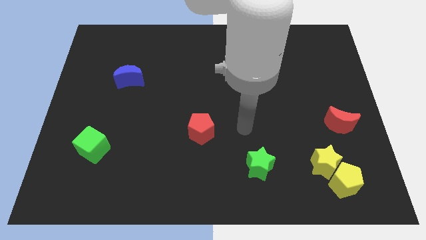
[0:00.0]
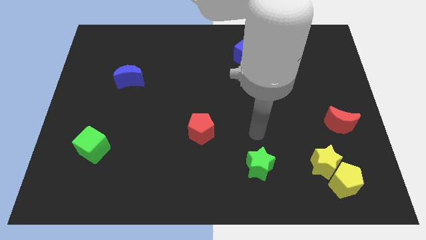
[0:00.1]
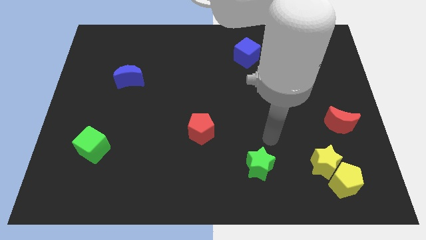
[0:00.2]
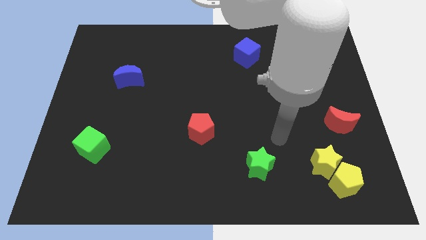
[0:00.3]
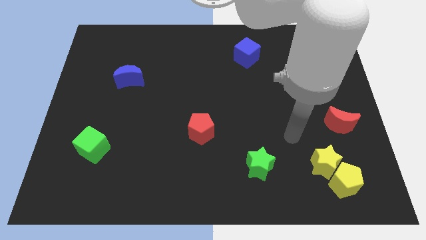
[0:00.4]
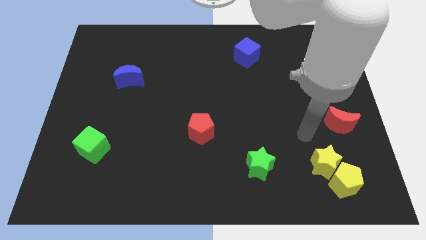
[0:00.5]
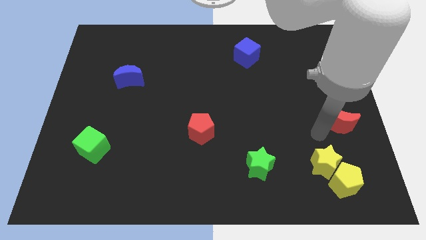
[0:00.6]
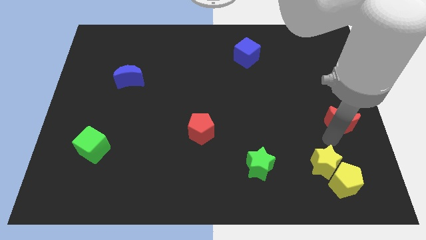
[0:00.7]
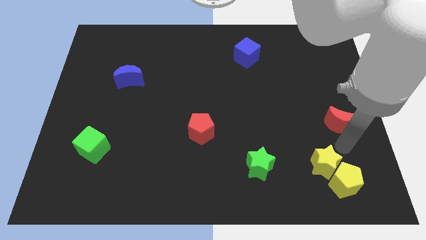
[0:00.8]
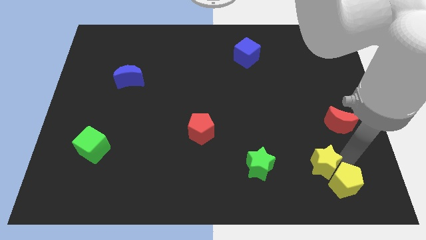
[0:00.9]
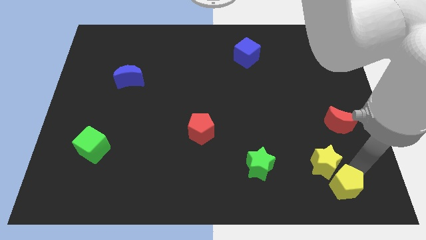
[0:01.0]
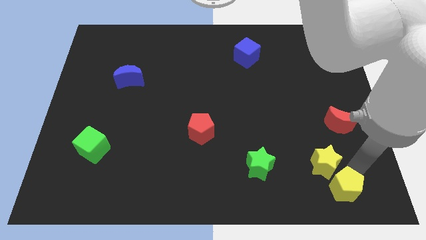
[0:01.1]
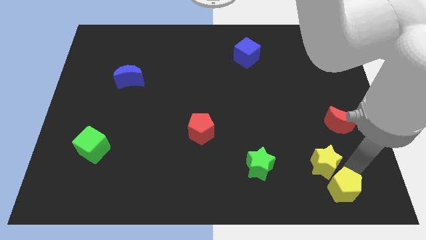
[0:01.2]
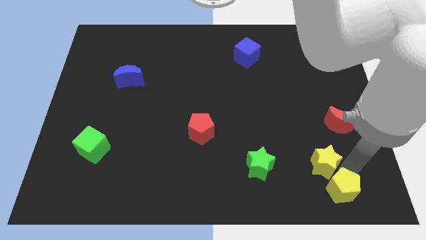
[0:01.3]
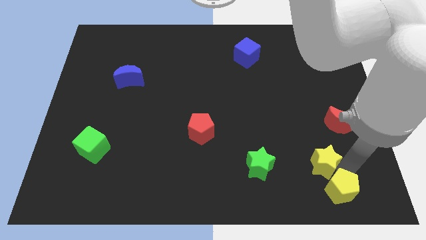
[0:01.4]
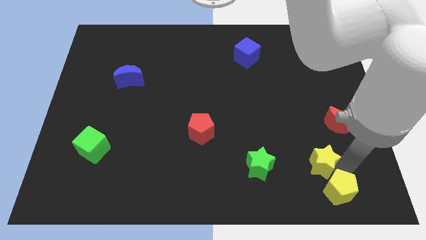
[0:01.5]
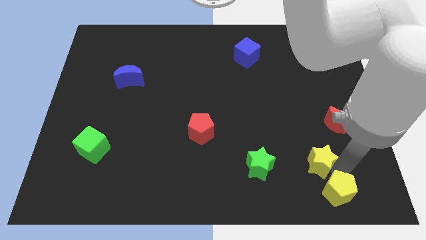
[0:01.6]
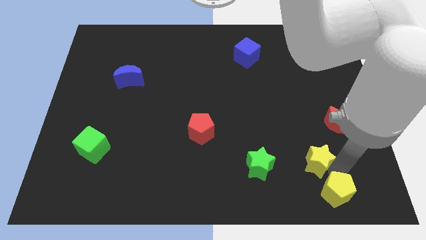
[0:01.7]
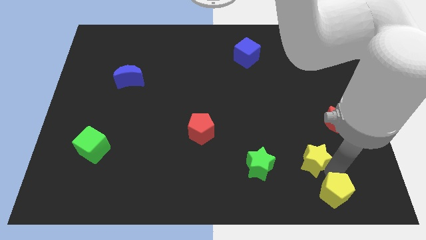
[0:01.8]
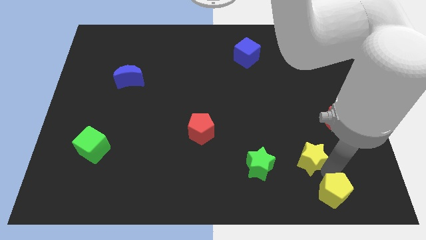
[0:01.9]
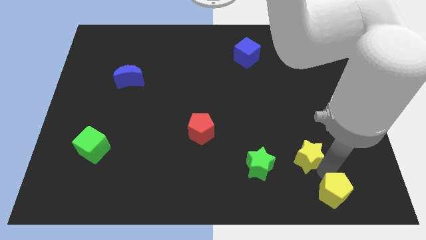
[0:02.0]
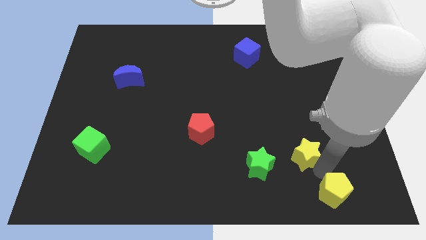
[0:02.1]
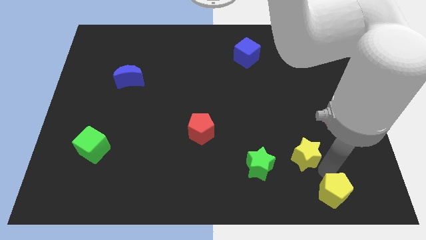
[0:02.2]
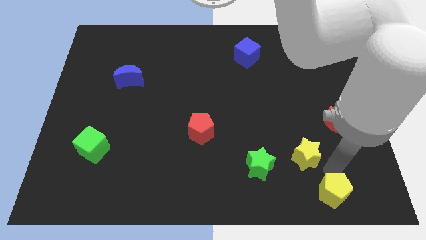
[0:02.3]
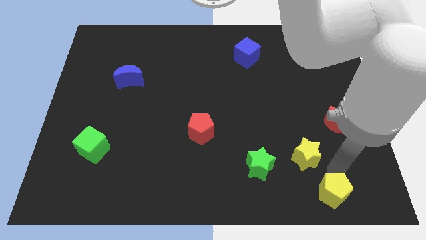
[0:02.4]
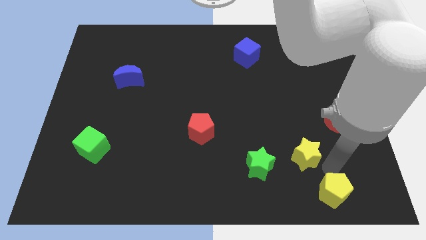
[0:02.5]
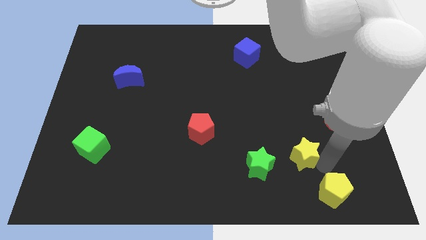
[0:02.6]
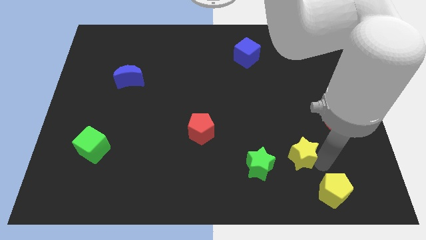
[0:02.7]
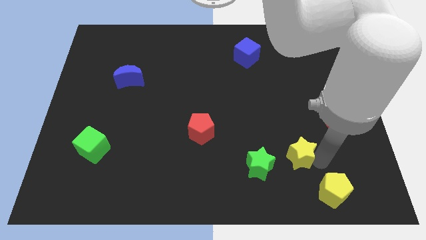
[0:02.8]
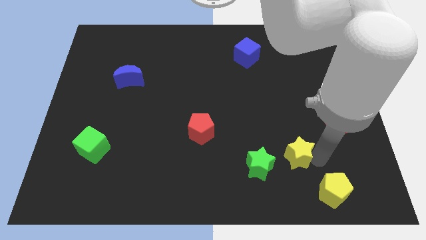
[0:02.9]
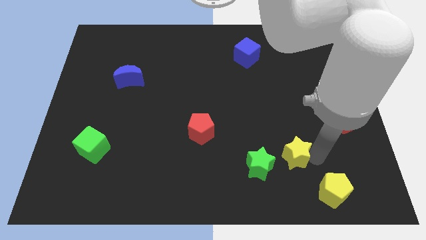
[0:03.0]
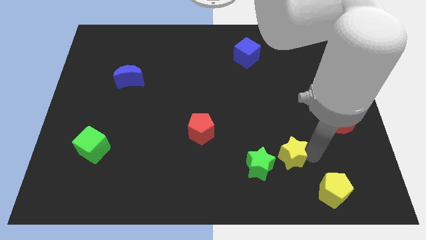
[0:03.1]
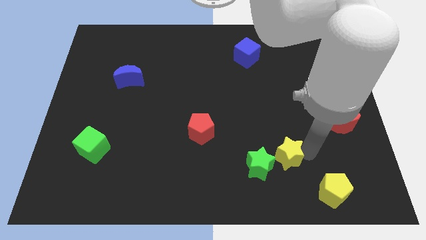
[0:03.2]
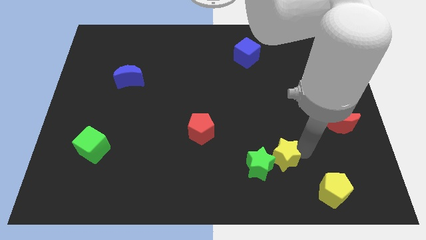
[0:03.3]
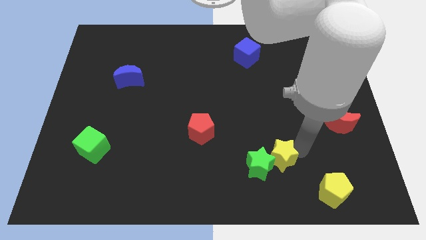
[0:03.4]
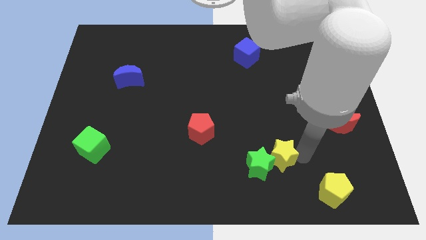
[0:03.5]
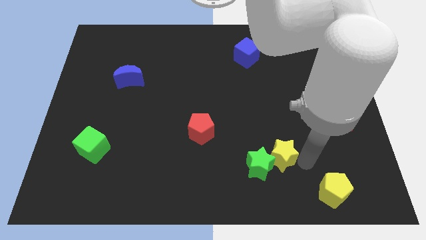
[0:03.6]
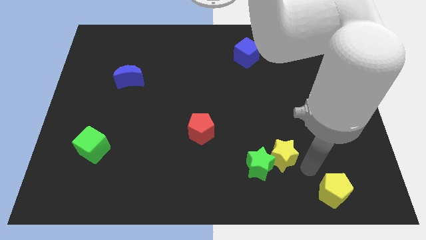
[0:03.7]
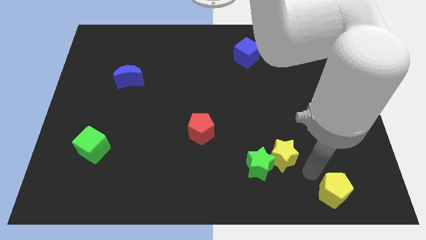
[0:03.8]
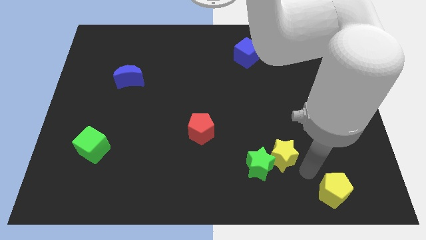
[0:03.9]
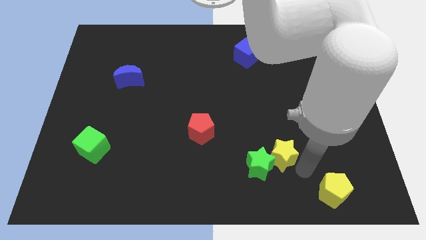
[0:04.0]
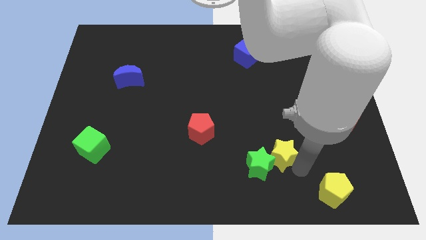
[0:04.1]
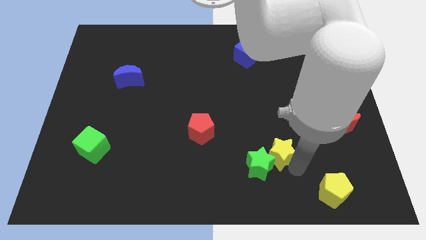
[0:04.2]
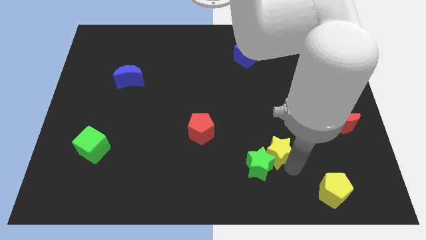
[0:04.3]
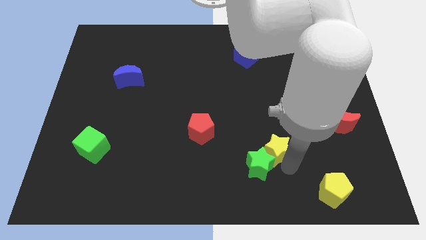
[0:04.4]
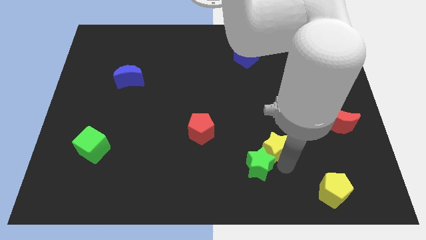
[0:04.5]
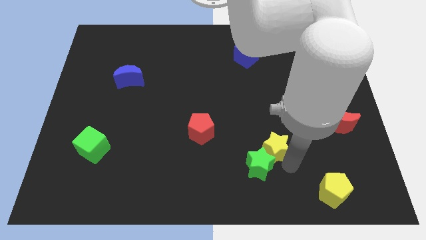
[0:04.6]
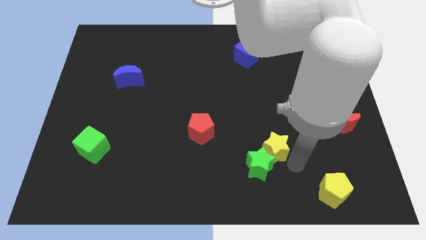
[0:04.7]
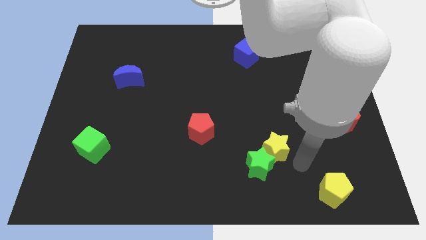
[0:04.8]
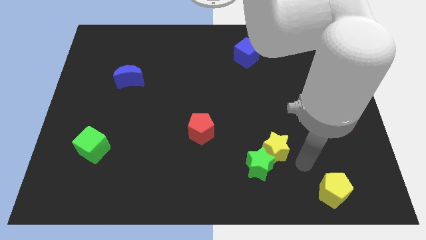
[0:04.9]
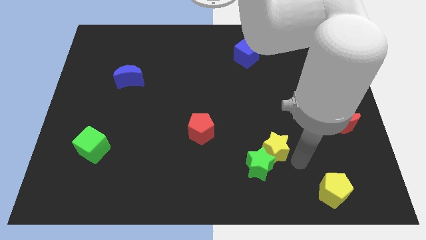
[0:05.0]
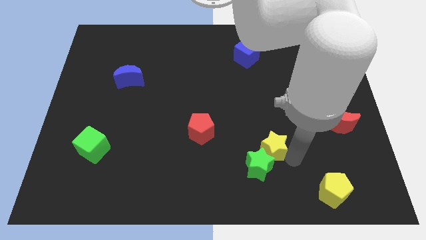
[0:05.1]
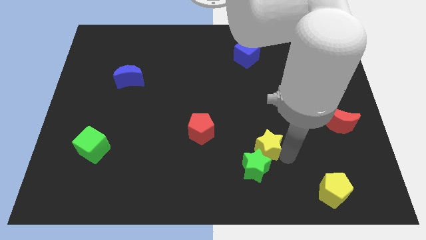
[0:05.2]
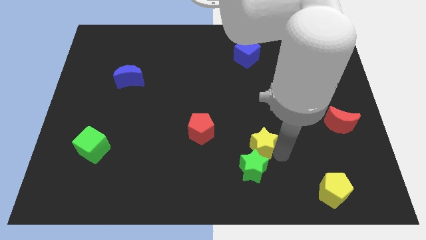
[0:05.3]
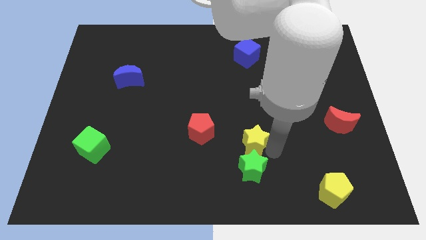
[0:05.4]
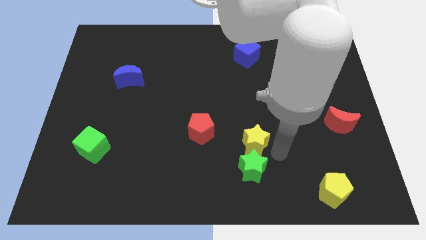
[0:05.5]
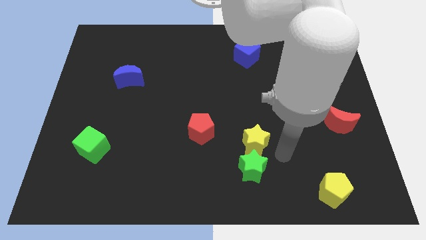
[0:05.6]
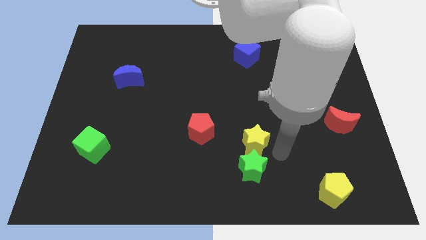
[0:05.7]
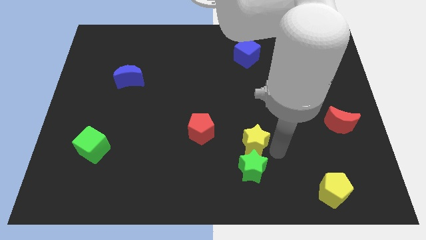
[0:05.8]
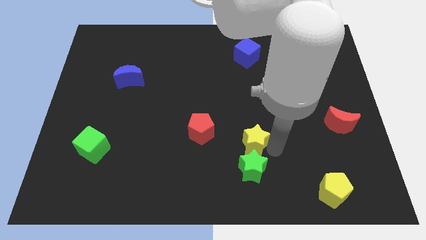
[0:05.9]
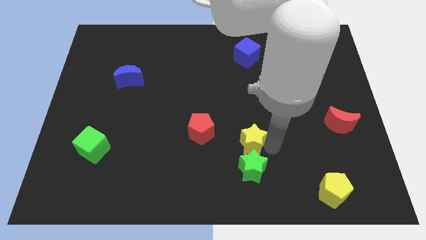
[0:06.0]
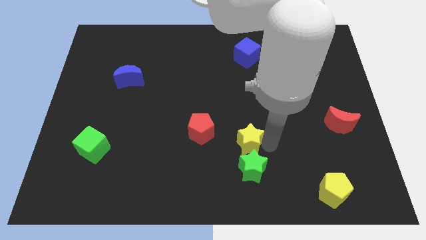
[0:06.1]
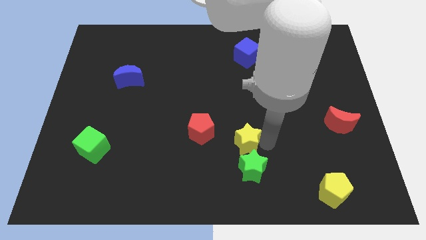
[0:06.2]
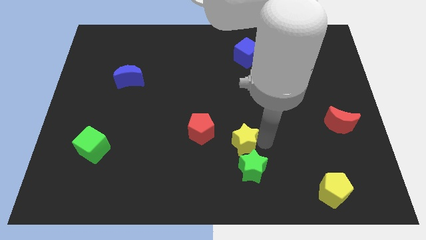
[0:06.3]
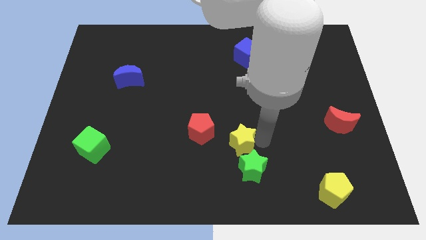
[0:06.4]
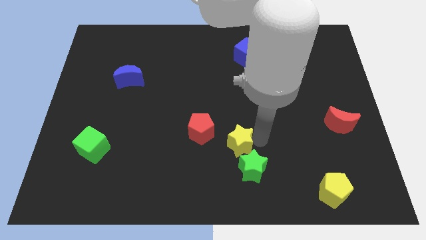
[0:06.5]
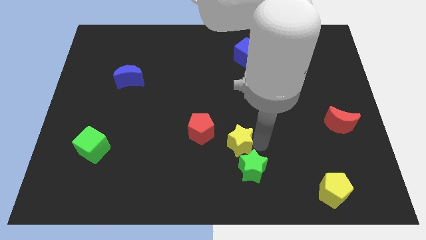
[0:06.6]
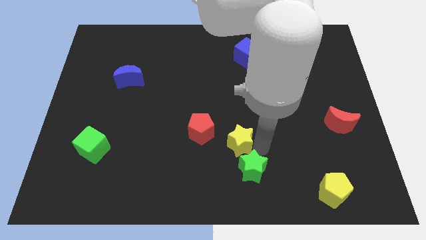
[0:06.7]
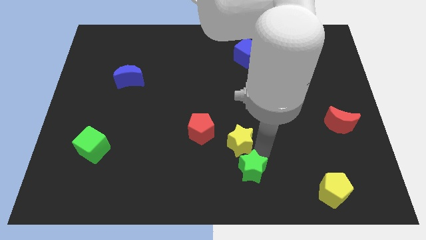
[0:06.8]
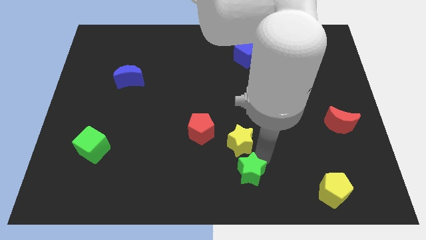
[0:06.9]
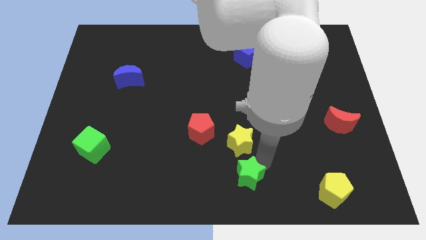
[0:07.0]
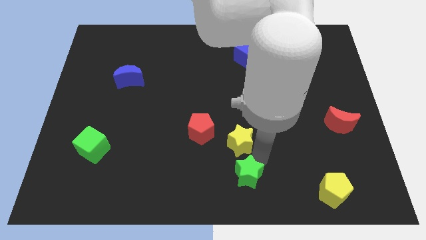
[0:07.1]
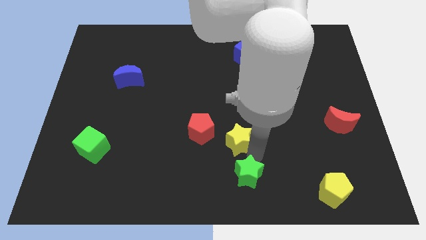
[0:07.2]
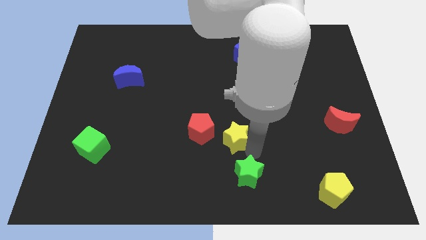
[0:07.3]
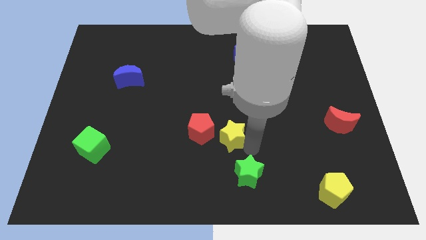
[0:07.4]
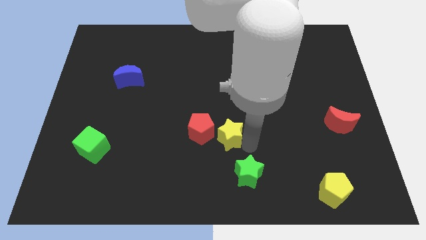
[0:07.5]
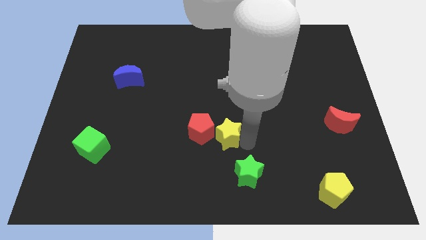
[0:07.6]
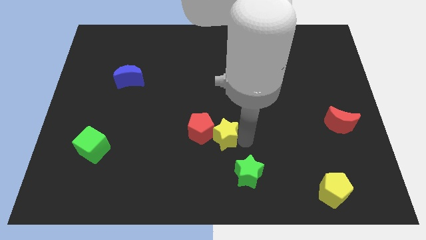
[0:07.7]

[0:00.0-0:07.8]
slide the yellow star close to the red pentagon
